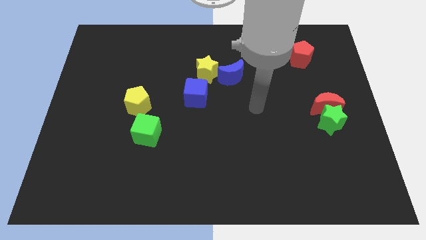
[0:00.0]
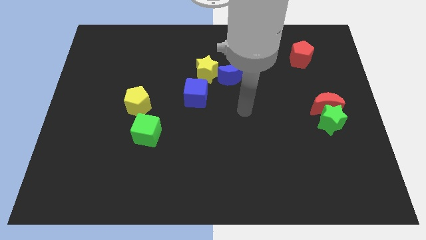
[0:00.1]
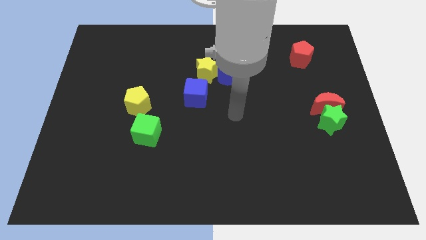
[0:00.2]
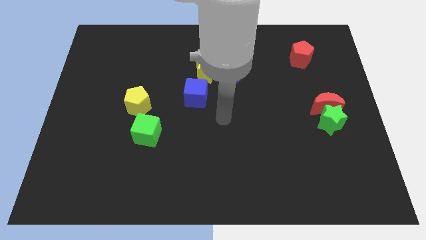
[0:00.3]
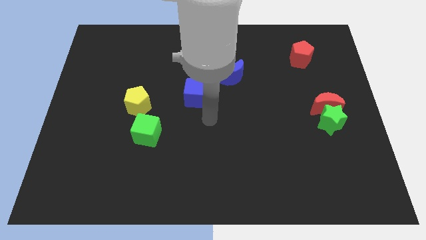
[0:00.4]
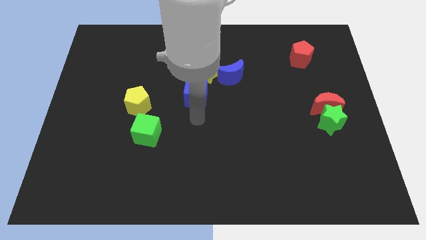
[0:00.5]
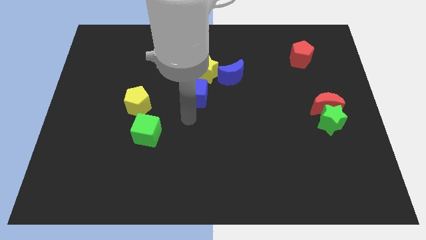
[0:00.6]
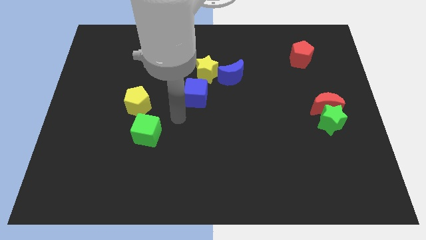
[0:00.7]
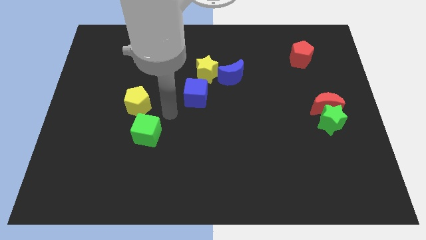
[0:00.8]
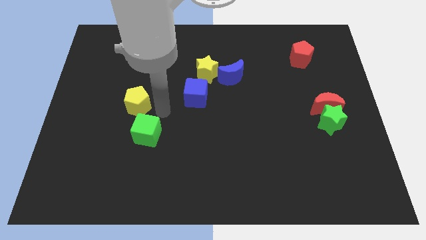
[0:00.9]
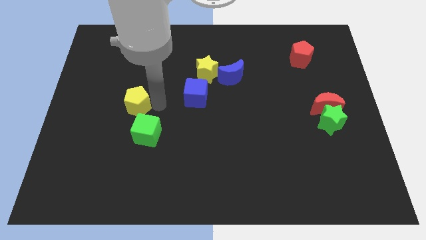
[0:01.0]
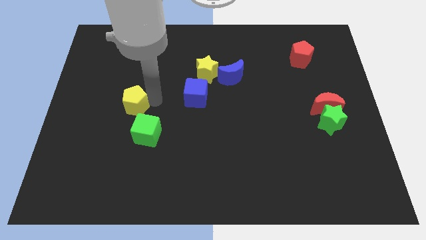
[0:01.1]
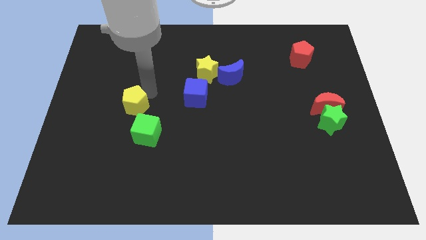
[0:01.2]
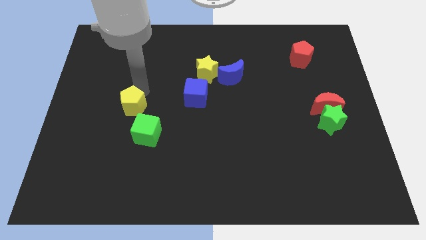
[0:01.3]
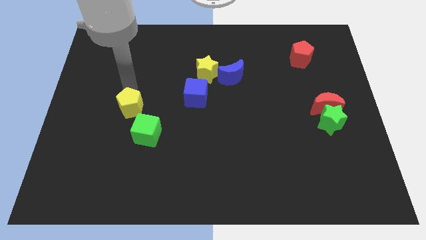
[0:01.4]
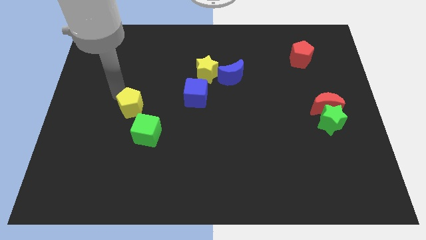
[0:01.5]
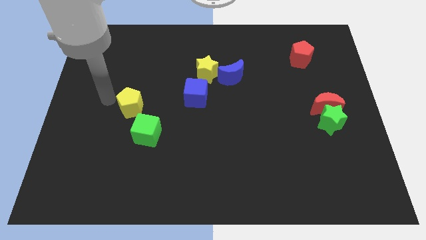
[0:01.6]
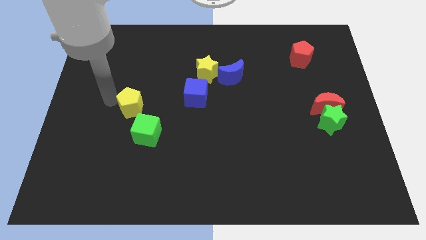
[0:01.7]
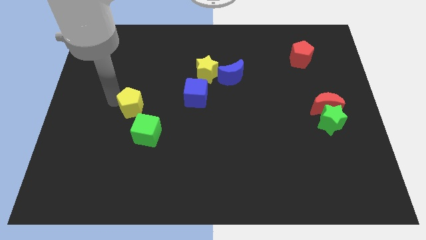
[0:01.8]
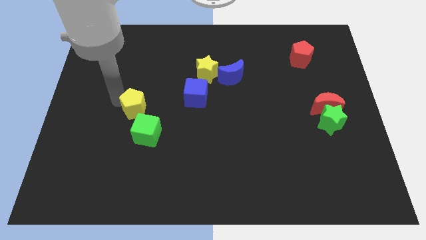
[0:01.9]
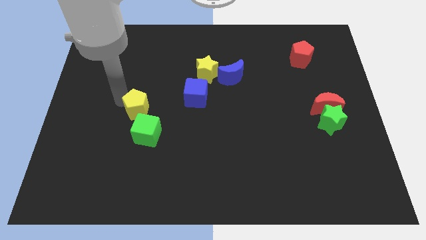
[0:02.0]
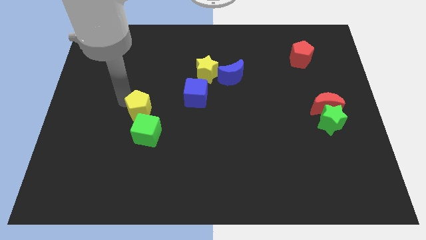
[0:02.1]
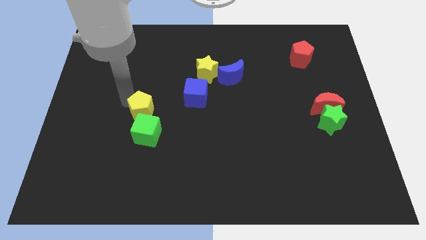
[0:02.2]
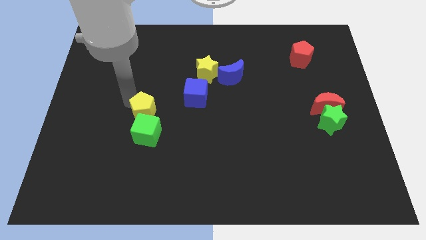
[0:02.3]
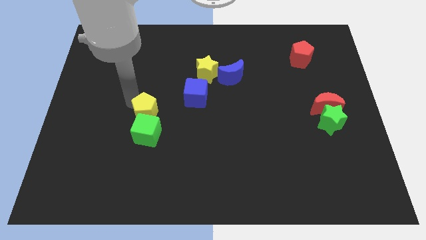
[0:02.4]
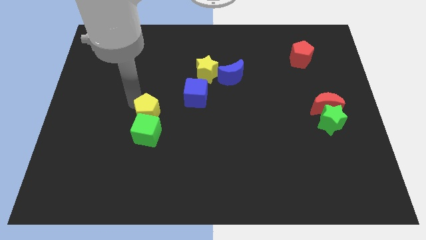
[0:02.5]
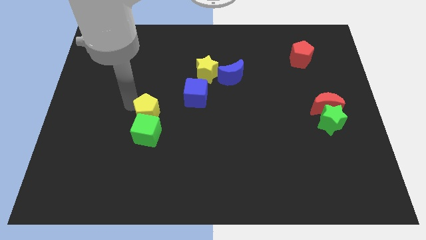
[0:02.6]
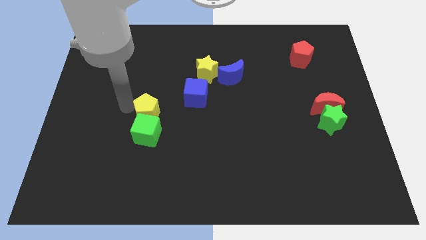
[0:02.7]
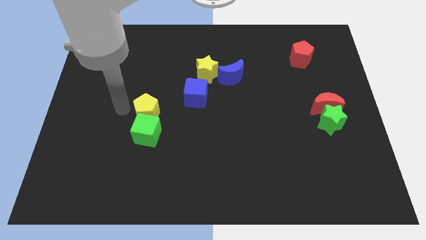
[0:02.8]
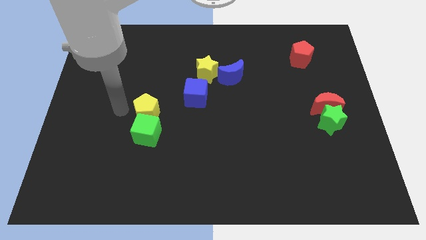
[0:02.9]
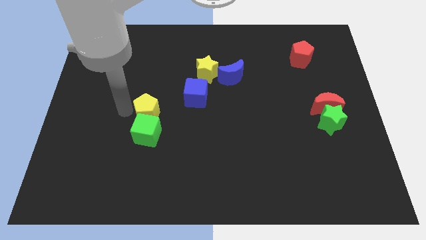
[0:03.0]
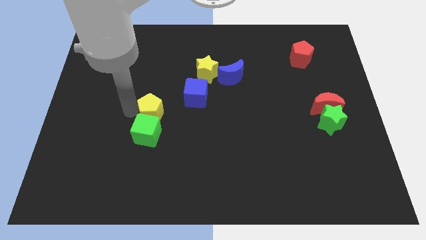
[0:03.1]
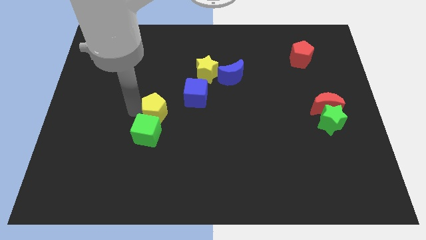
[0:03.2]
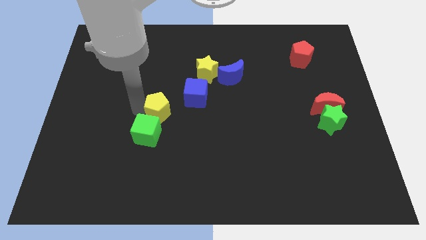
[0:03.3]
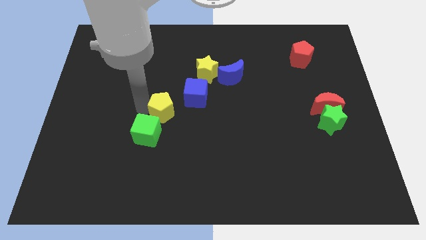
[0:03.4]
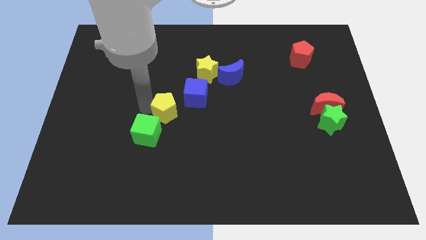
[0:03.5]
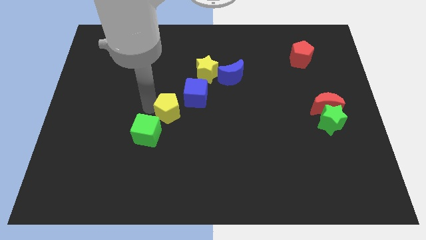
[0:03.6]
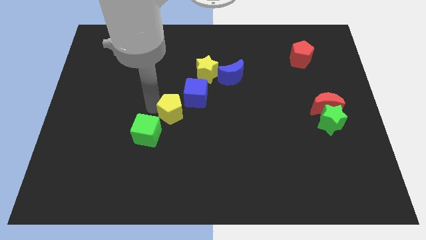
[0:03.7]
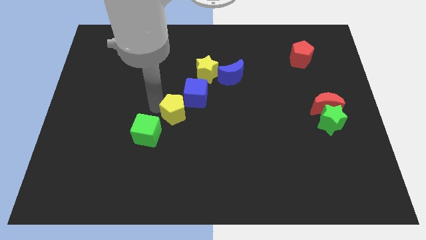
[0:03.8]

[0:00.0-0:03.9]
push the yellow pentagon downwards and right diagonally slightly

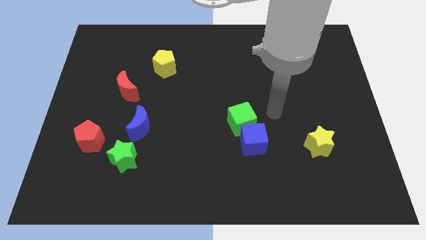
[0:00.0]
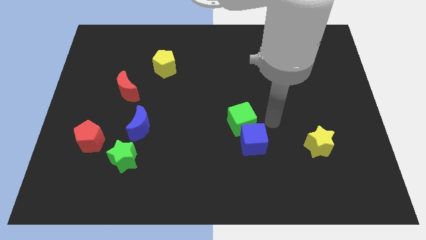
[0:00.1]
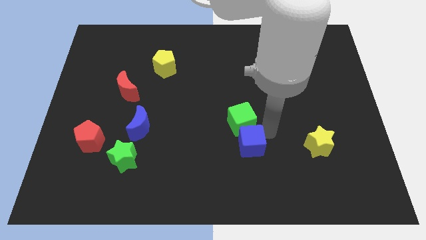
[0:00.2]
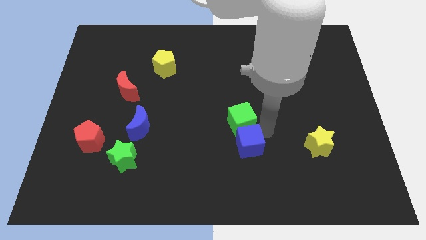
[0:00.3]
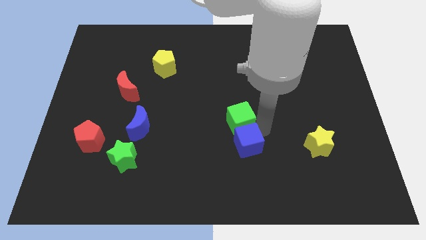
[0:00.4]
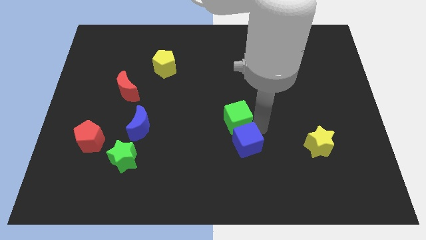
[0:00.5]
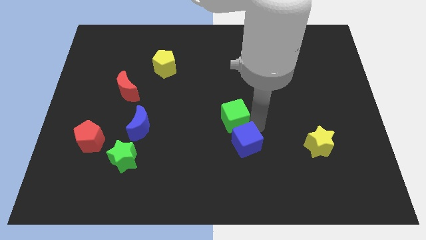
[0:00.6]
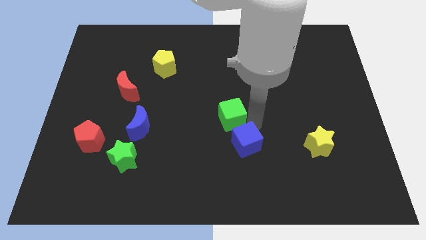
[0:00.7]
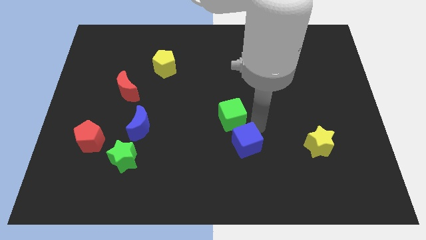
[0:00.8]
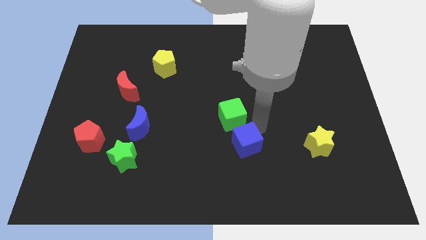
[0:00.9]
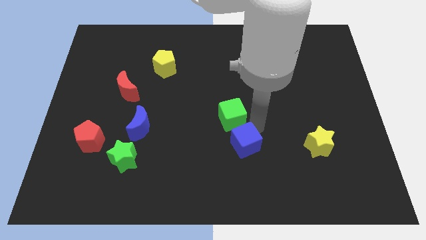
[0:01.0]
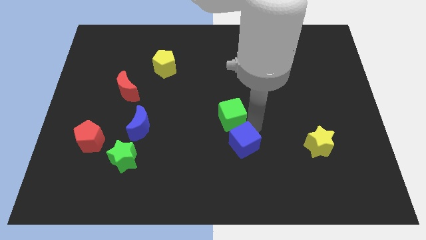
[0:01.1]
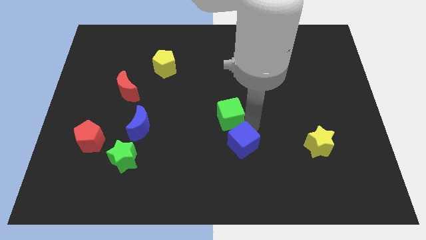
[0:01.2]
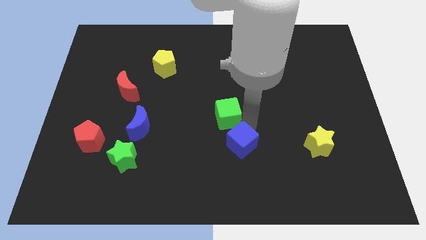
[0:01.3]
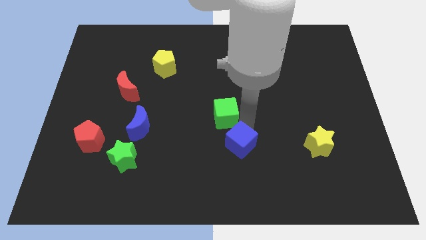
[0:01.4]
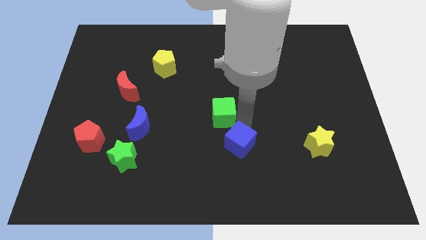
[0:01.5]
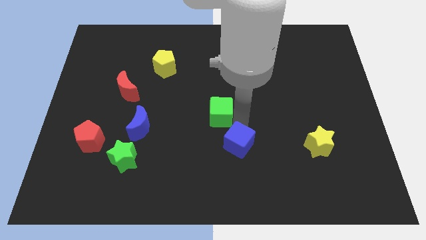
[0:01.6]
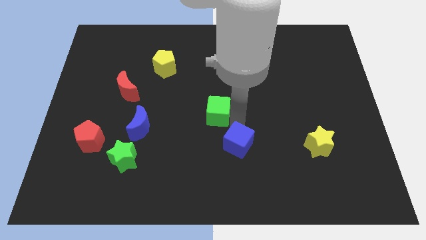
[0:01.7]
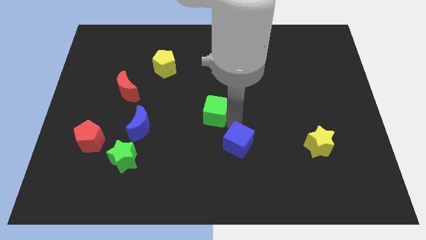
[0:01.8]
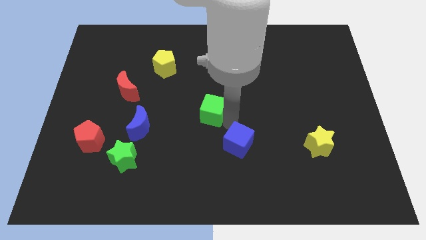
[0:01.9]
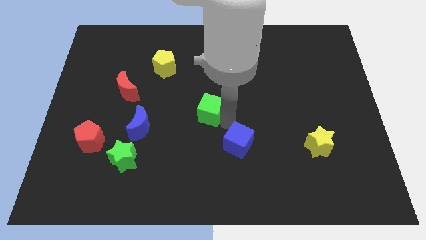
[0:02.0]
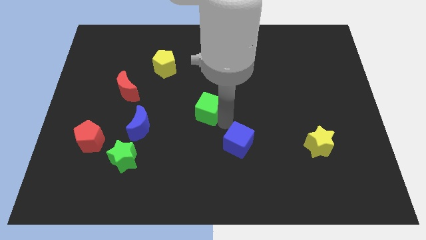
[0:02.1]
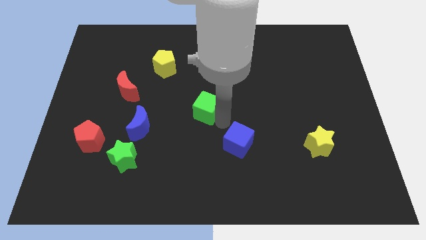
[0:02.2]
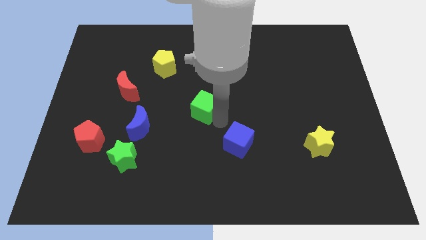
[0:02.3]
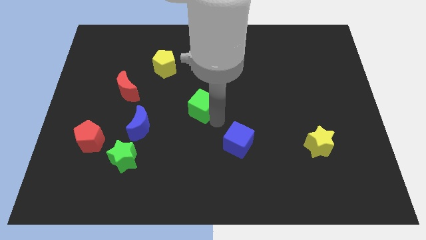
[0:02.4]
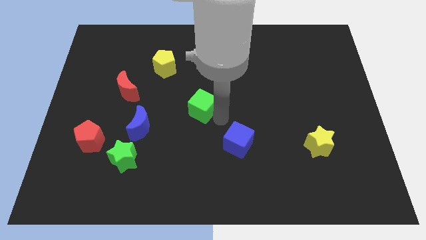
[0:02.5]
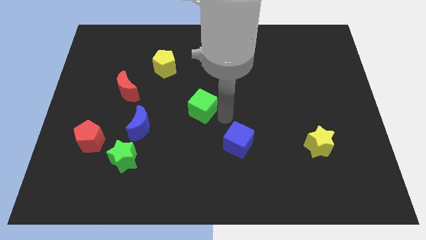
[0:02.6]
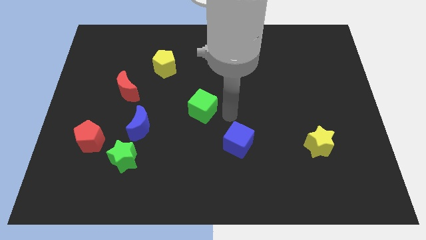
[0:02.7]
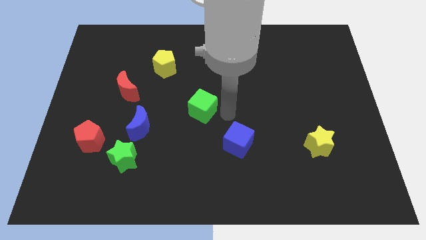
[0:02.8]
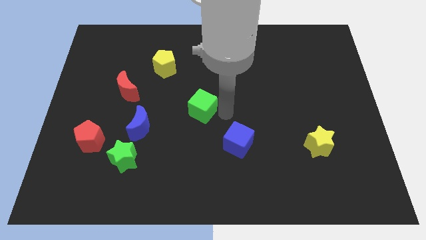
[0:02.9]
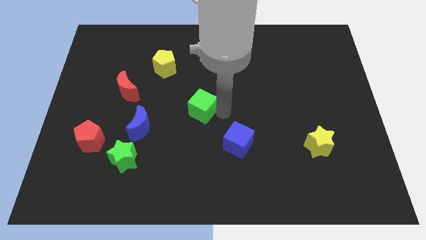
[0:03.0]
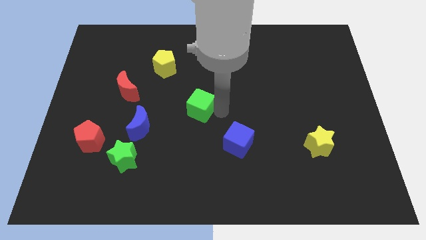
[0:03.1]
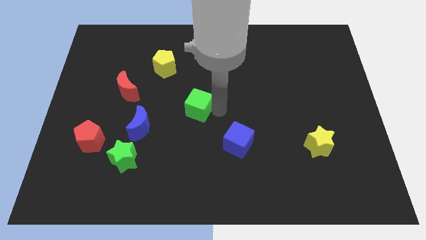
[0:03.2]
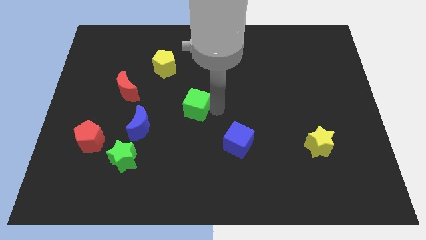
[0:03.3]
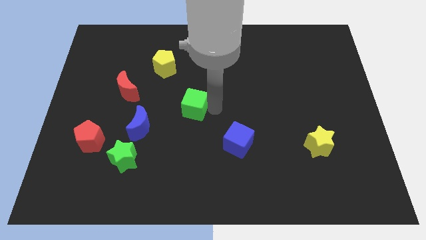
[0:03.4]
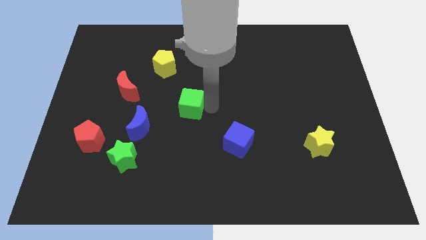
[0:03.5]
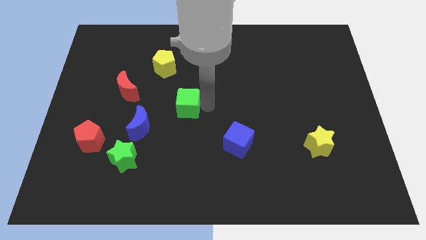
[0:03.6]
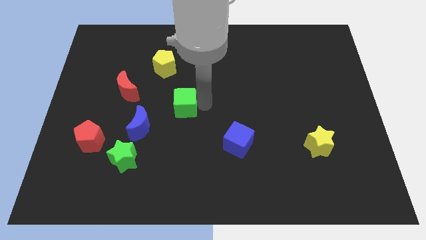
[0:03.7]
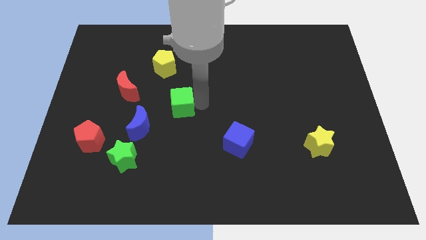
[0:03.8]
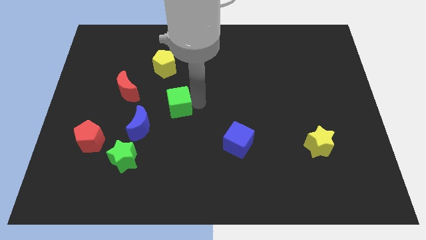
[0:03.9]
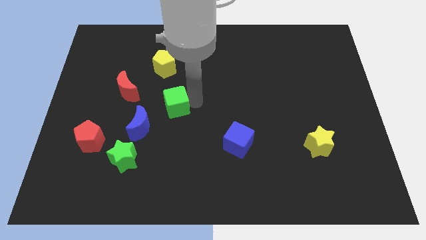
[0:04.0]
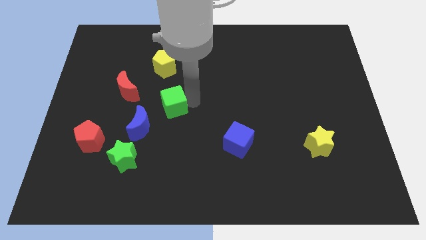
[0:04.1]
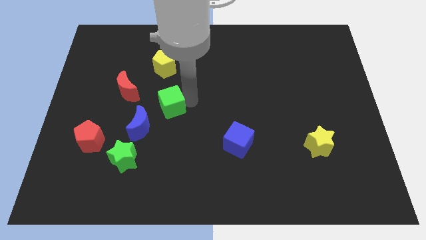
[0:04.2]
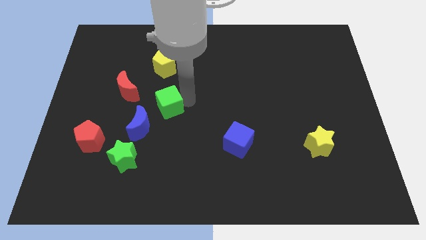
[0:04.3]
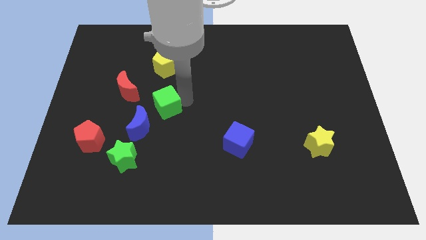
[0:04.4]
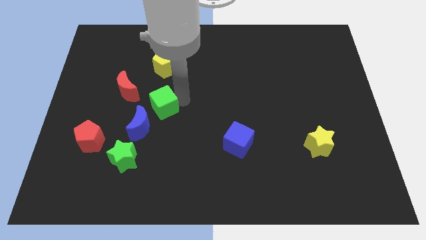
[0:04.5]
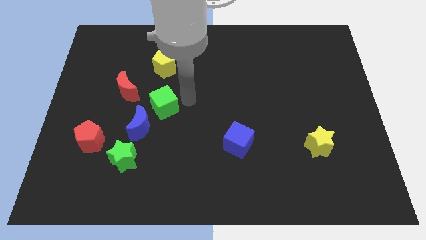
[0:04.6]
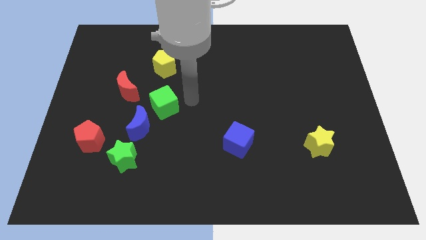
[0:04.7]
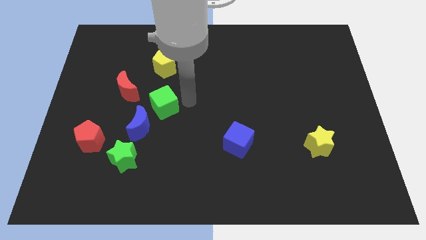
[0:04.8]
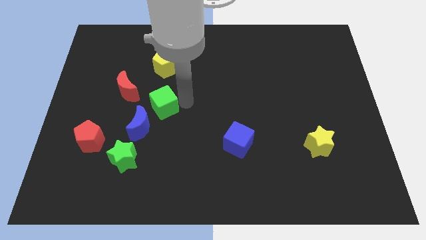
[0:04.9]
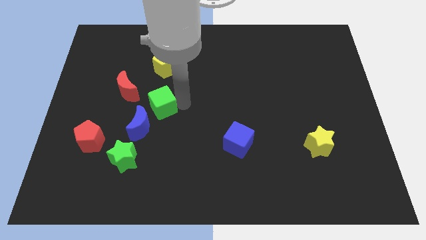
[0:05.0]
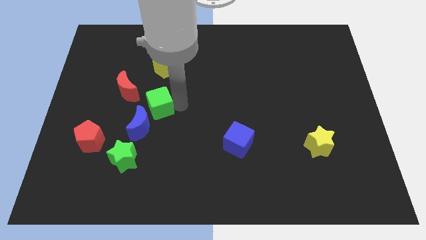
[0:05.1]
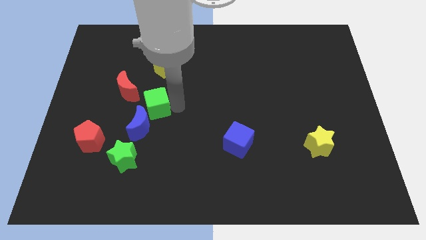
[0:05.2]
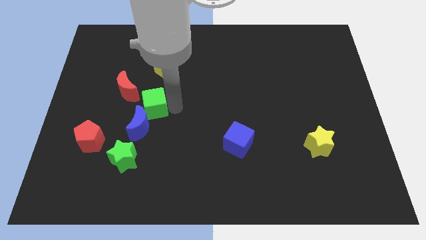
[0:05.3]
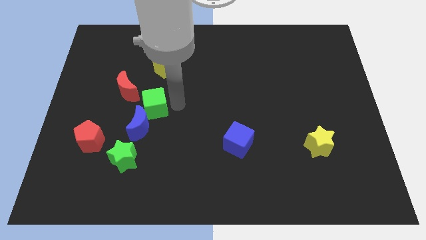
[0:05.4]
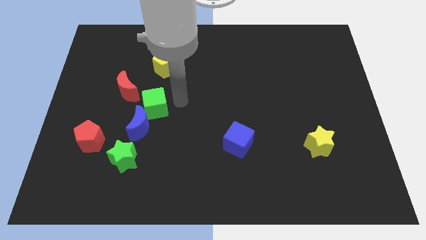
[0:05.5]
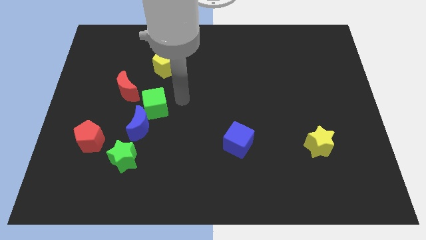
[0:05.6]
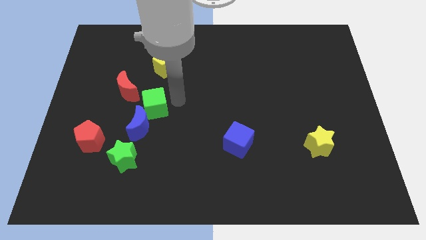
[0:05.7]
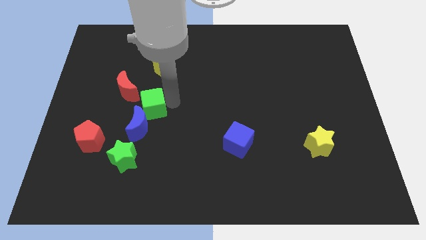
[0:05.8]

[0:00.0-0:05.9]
slide the green cube to the left
